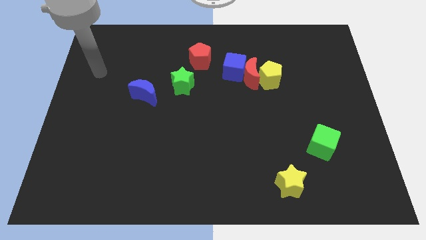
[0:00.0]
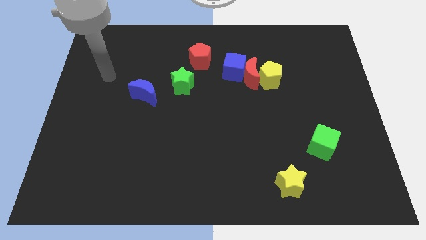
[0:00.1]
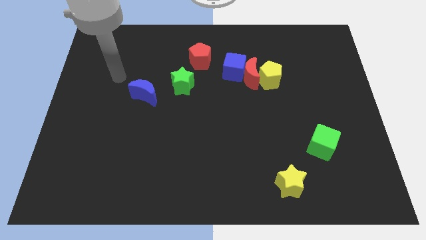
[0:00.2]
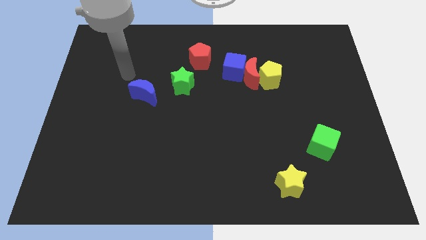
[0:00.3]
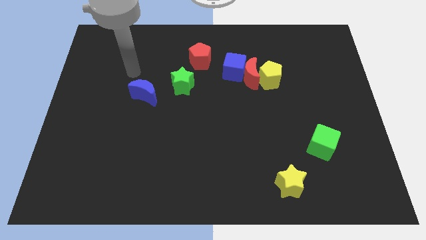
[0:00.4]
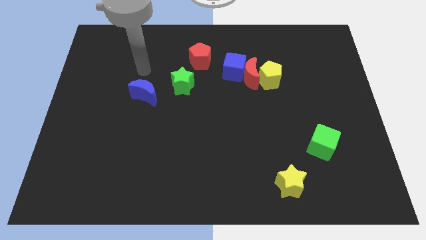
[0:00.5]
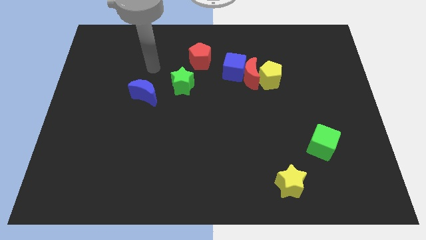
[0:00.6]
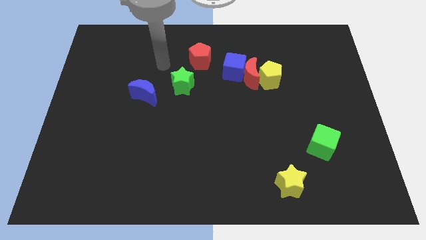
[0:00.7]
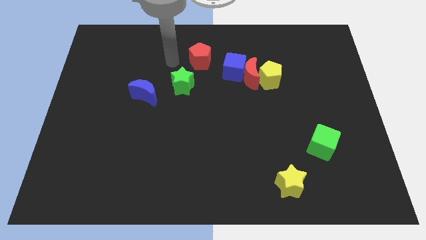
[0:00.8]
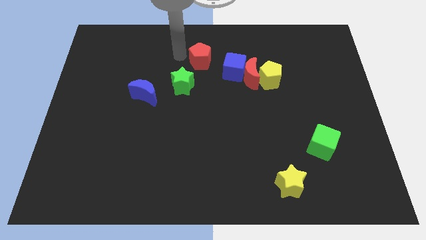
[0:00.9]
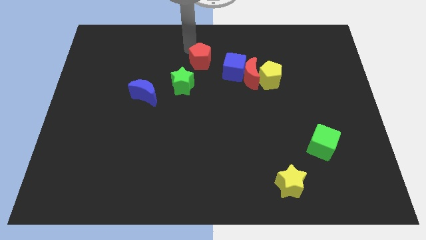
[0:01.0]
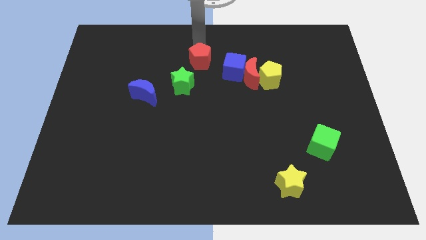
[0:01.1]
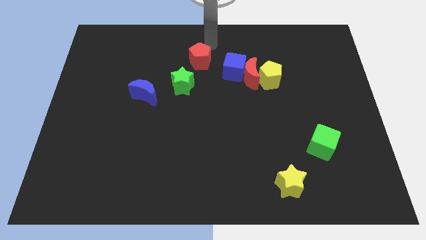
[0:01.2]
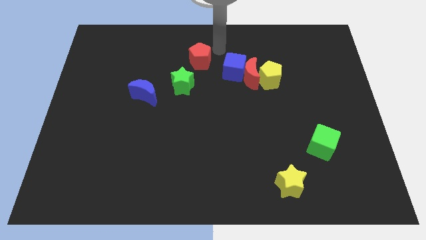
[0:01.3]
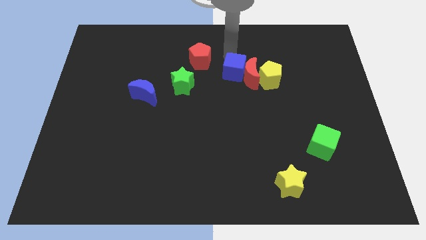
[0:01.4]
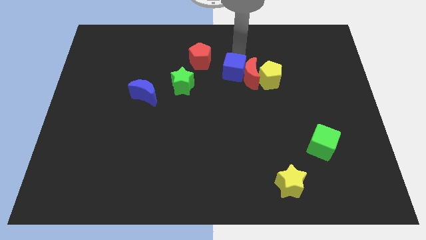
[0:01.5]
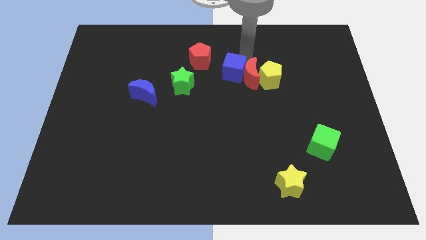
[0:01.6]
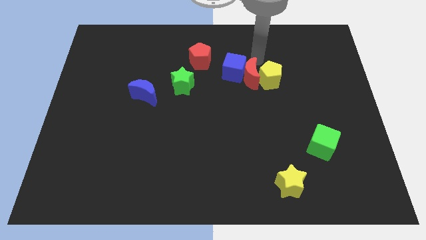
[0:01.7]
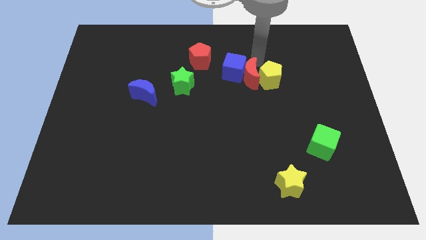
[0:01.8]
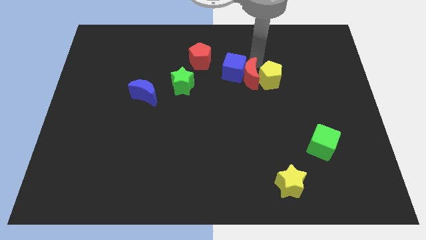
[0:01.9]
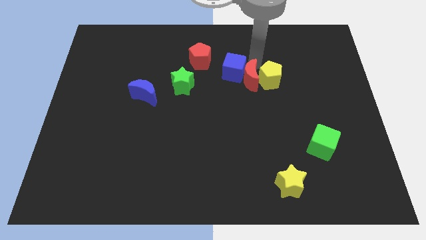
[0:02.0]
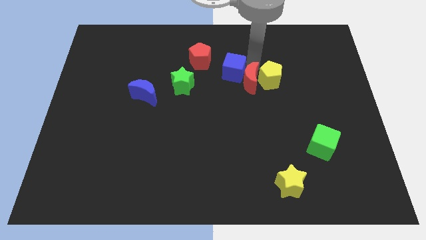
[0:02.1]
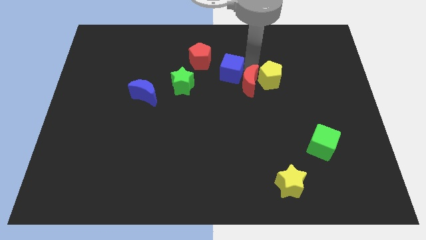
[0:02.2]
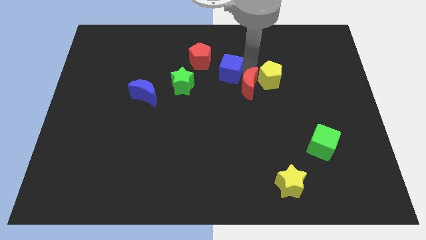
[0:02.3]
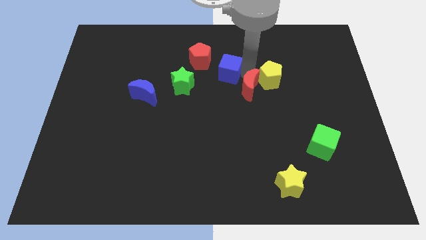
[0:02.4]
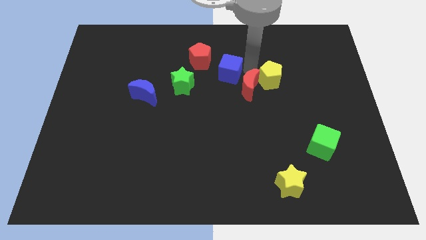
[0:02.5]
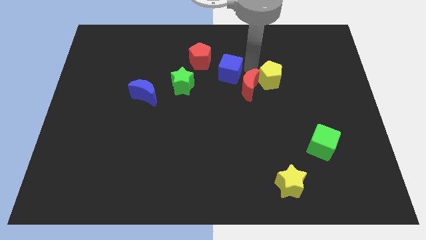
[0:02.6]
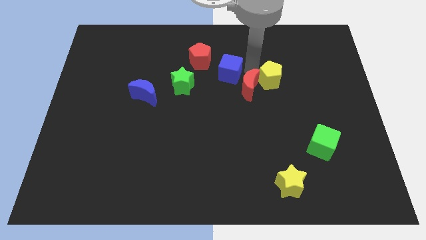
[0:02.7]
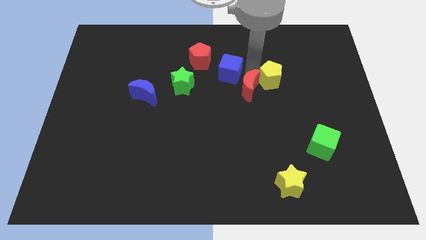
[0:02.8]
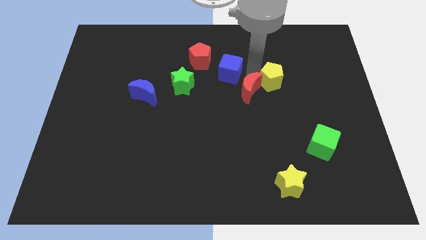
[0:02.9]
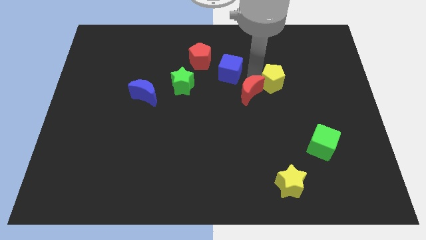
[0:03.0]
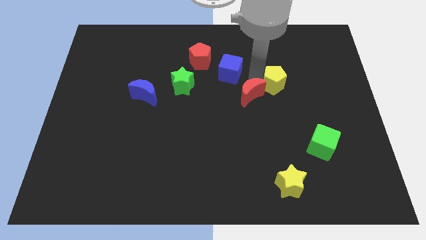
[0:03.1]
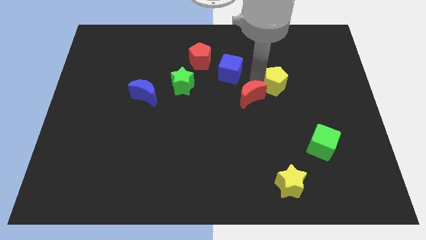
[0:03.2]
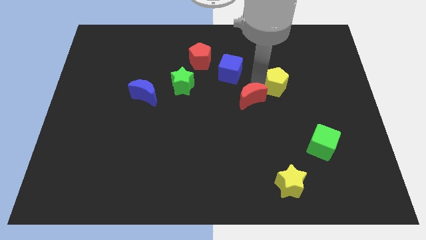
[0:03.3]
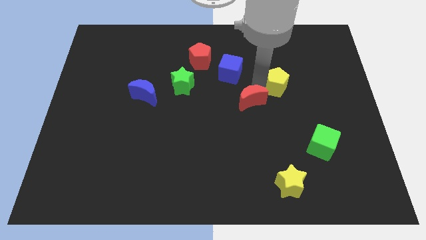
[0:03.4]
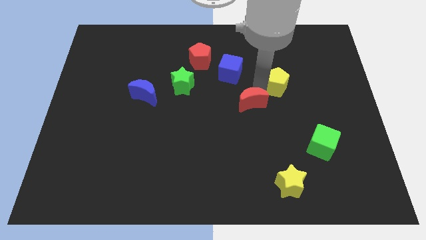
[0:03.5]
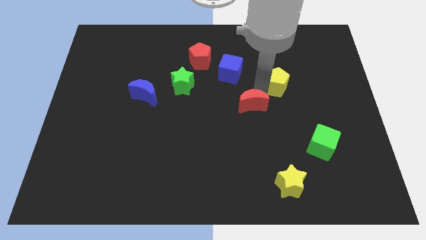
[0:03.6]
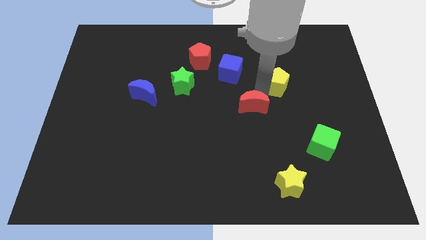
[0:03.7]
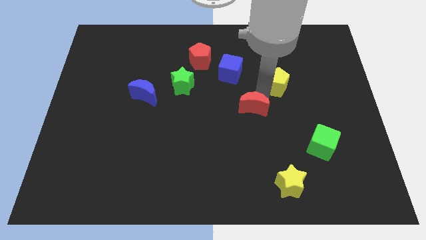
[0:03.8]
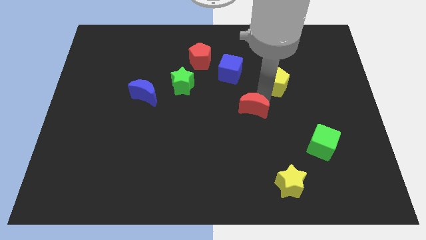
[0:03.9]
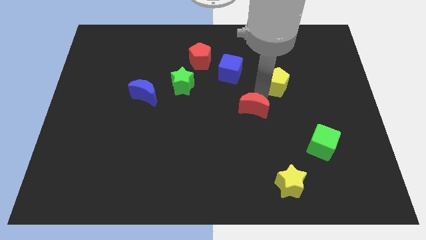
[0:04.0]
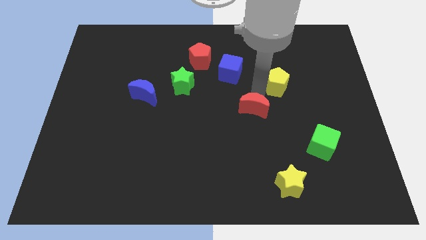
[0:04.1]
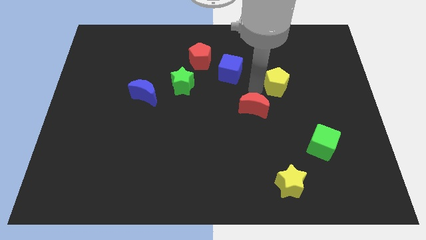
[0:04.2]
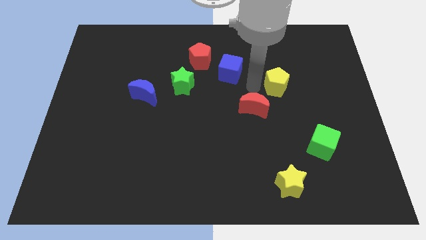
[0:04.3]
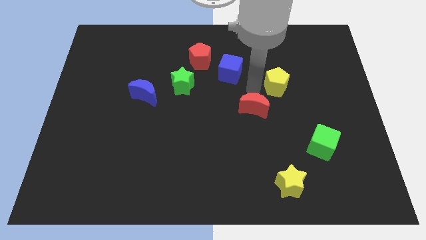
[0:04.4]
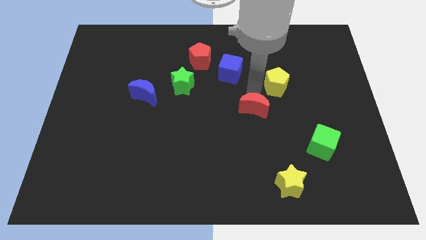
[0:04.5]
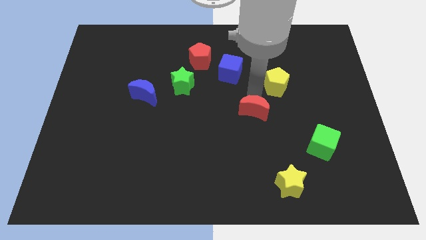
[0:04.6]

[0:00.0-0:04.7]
pull the red moon apart from the blue cube and yellow pentagon

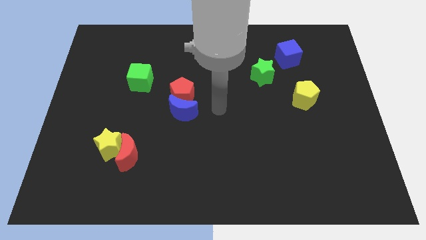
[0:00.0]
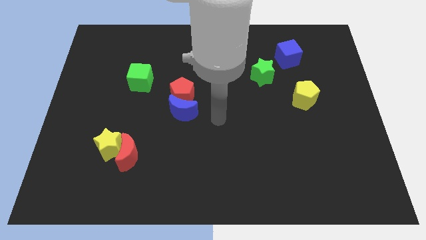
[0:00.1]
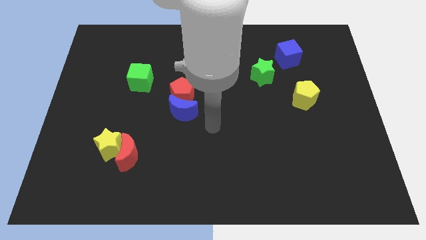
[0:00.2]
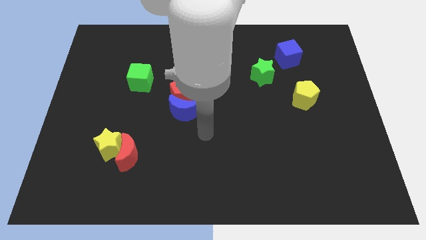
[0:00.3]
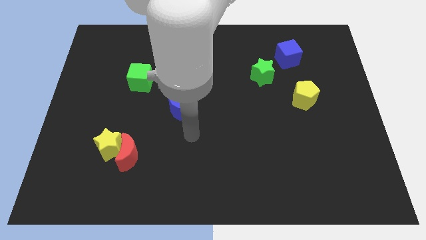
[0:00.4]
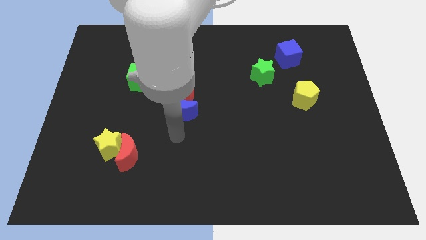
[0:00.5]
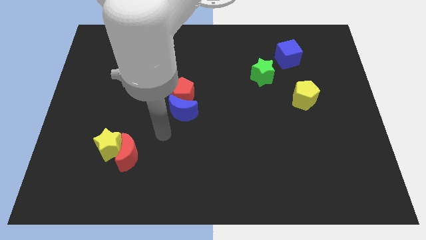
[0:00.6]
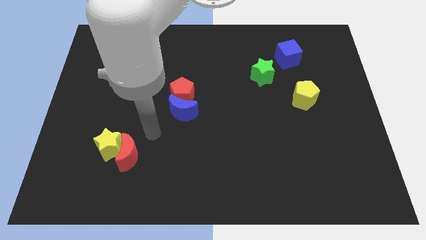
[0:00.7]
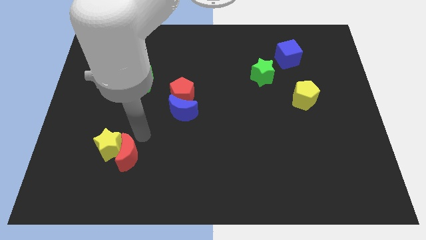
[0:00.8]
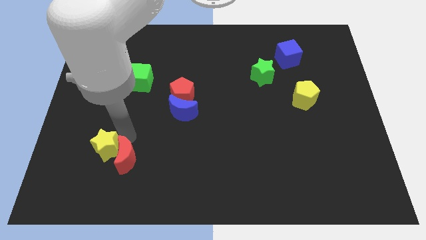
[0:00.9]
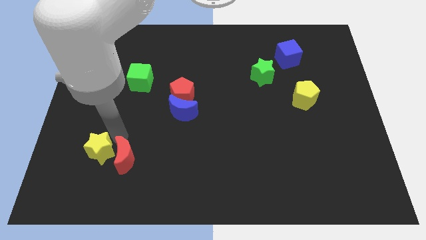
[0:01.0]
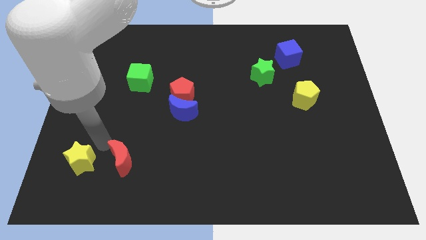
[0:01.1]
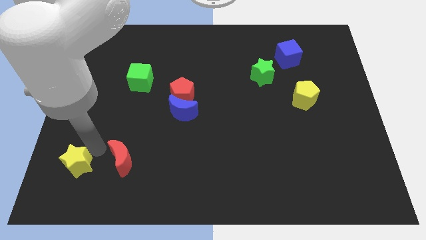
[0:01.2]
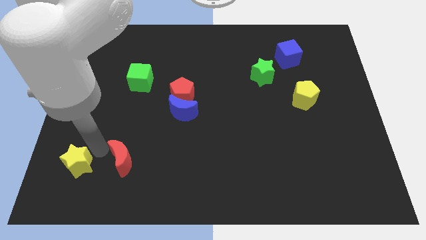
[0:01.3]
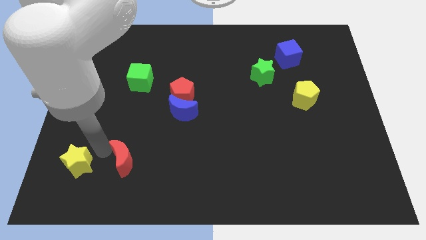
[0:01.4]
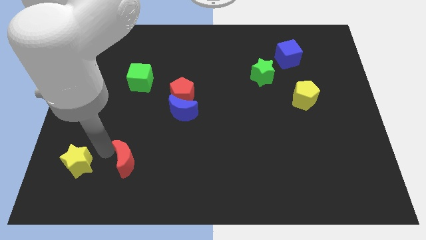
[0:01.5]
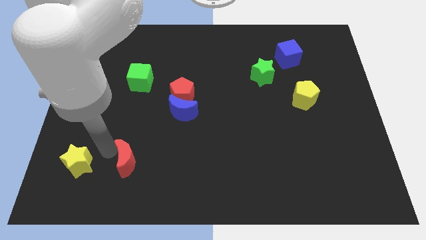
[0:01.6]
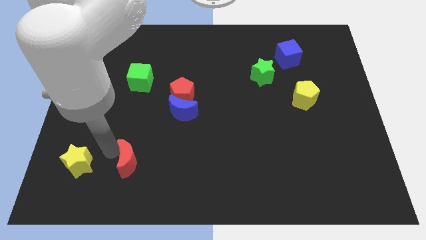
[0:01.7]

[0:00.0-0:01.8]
move the red moon away from the yellow star

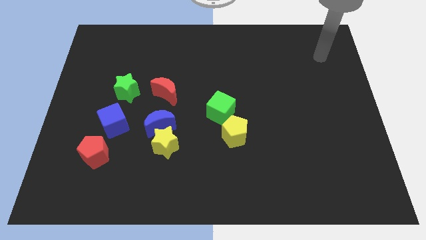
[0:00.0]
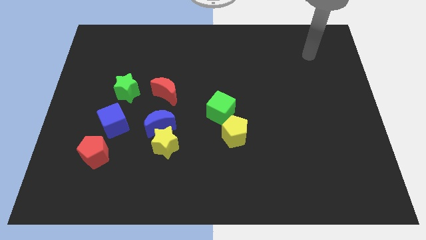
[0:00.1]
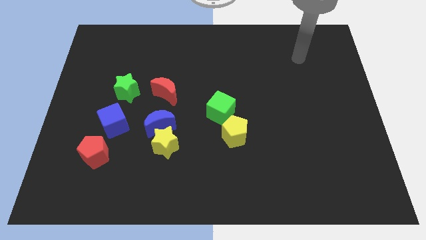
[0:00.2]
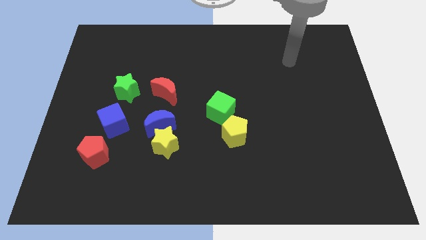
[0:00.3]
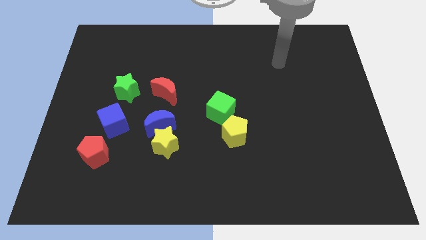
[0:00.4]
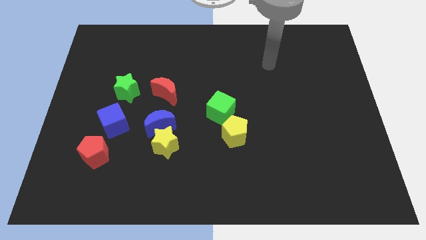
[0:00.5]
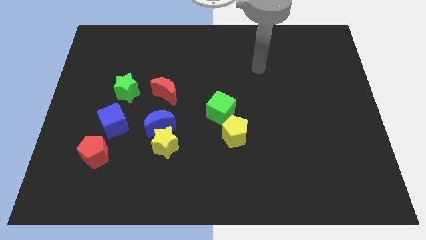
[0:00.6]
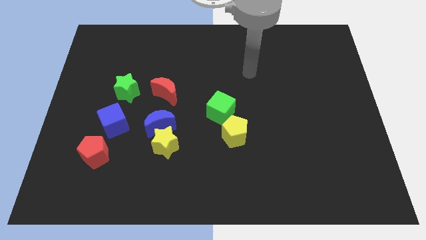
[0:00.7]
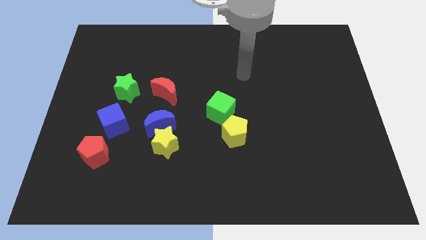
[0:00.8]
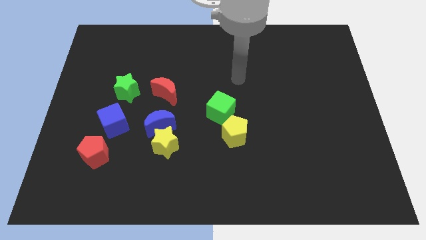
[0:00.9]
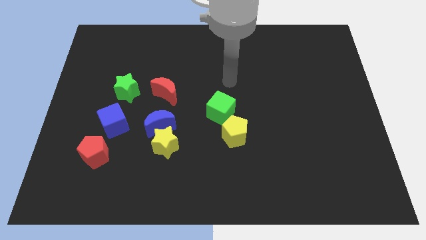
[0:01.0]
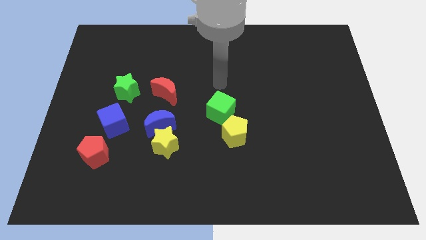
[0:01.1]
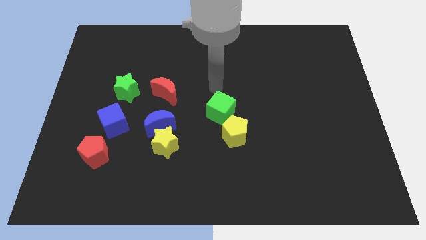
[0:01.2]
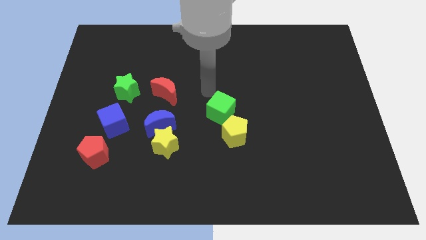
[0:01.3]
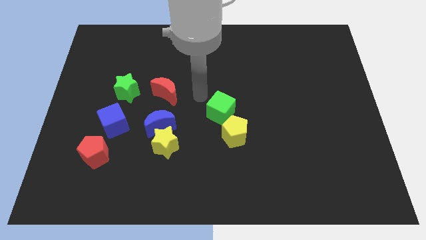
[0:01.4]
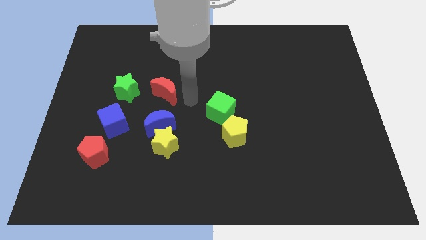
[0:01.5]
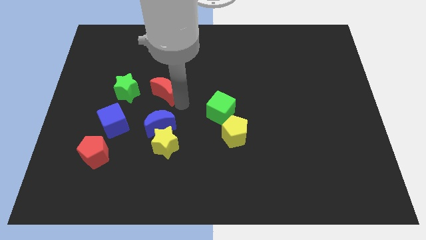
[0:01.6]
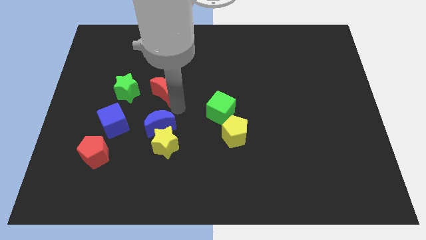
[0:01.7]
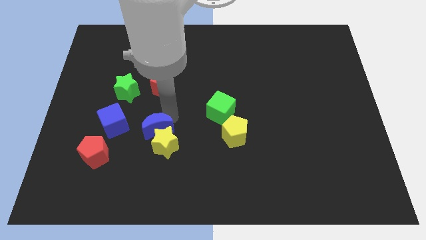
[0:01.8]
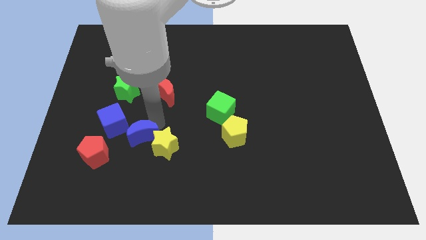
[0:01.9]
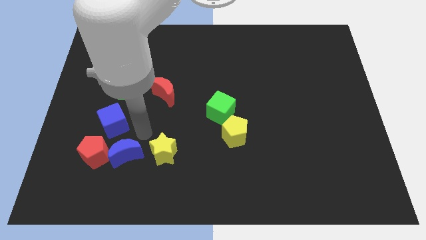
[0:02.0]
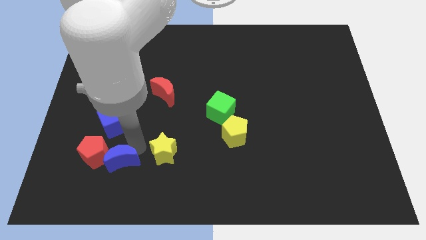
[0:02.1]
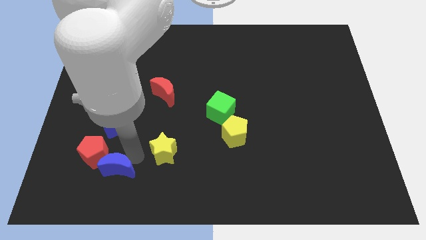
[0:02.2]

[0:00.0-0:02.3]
move the yellow star away from the blue moon

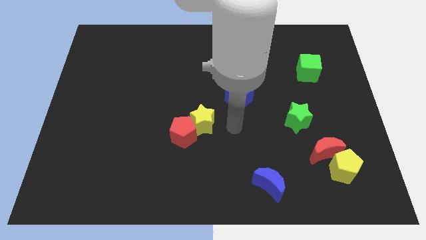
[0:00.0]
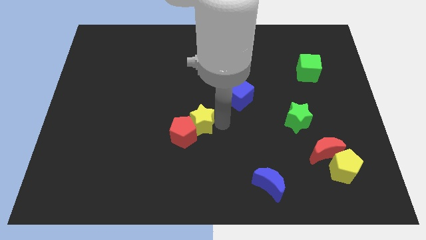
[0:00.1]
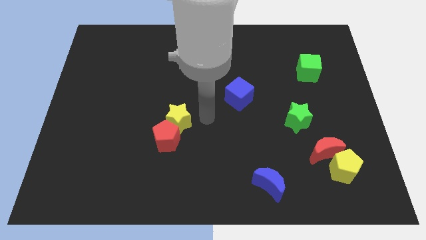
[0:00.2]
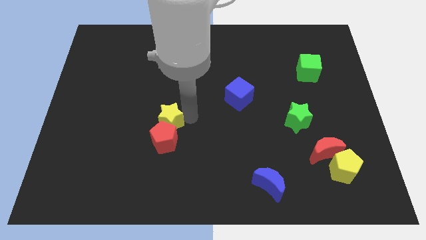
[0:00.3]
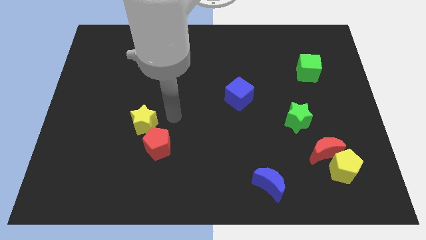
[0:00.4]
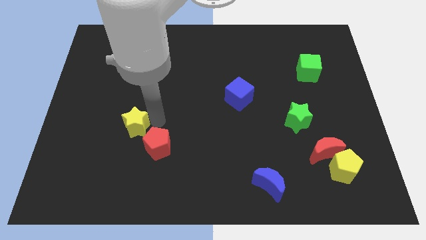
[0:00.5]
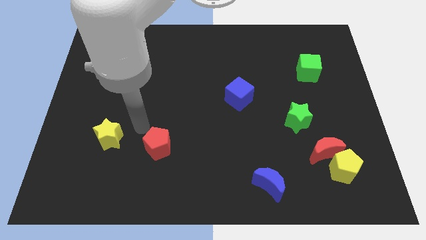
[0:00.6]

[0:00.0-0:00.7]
pull the red pentagon apart from the yellow star
